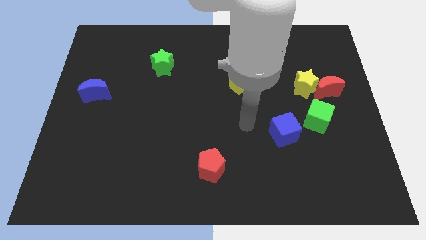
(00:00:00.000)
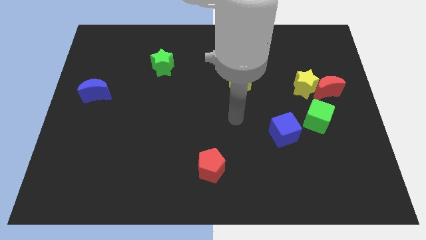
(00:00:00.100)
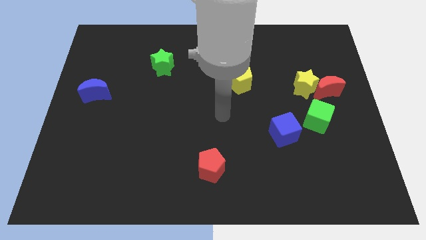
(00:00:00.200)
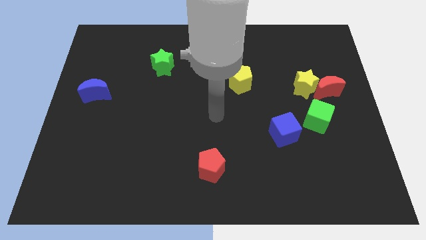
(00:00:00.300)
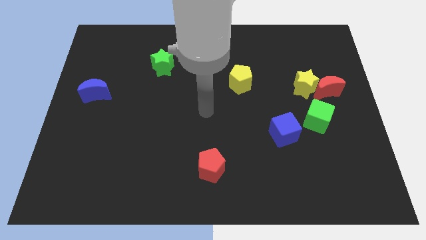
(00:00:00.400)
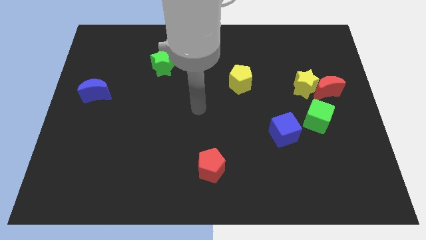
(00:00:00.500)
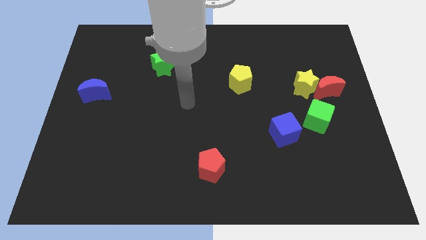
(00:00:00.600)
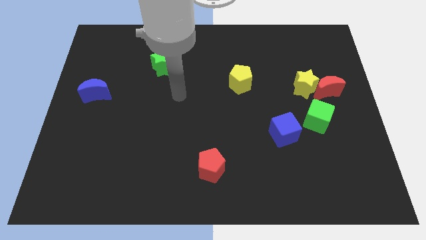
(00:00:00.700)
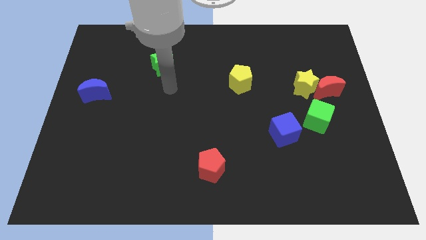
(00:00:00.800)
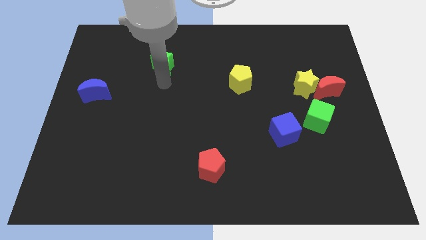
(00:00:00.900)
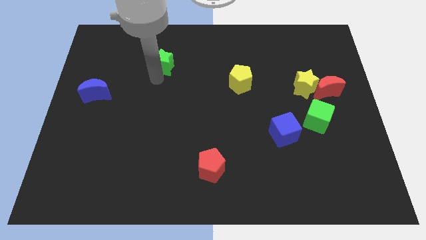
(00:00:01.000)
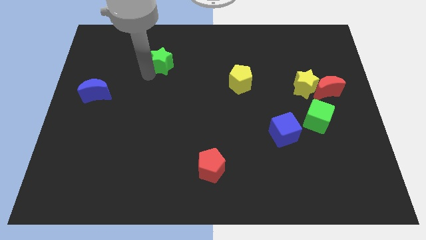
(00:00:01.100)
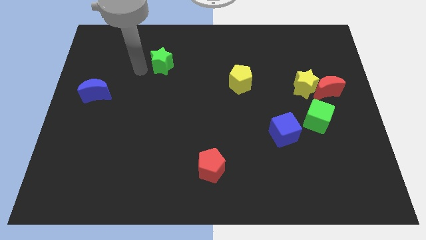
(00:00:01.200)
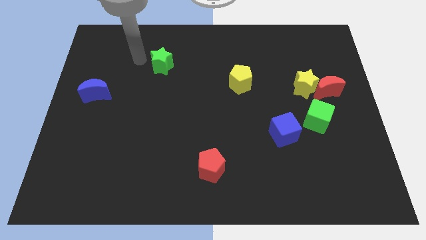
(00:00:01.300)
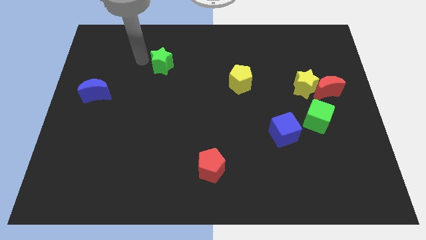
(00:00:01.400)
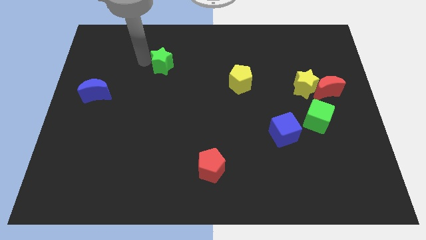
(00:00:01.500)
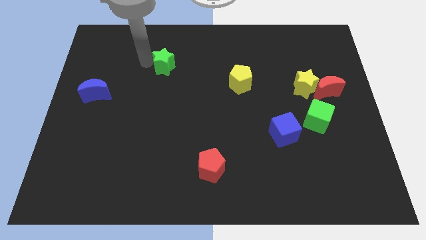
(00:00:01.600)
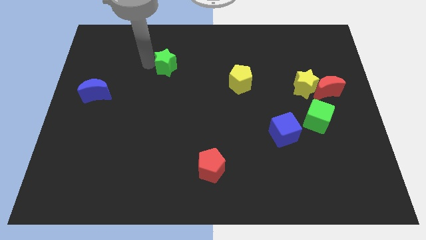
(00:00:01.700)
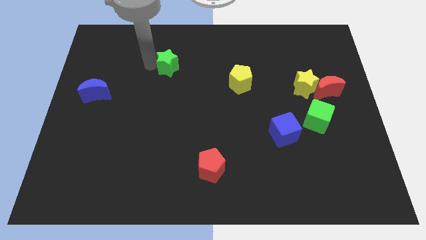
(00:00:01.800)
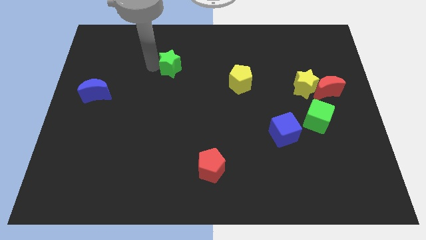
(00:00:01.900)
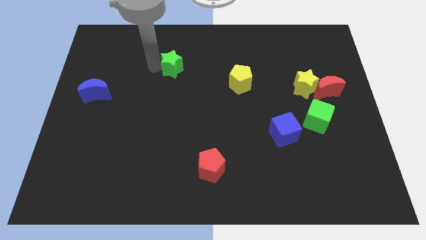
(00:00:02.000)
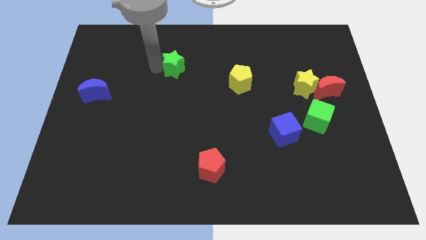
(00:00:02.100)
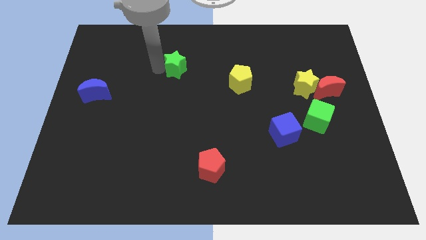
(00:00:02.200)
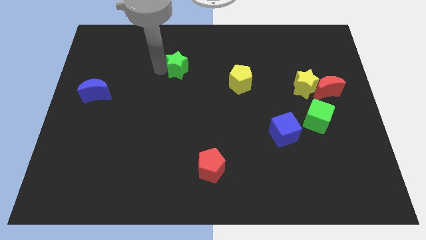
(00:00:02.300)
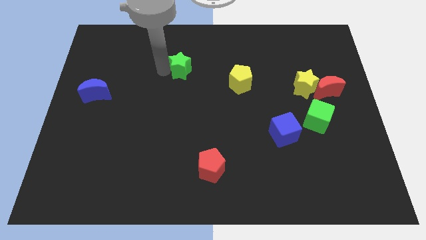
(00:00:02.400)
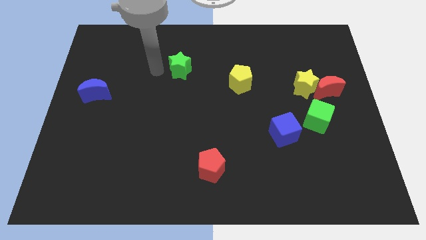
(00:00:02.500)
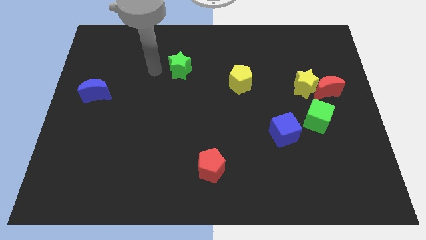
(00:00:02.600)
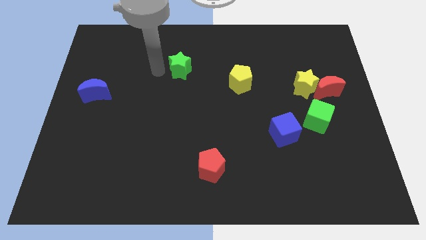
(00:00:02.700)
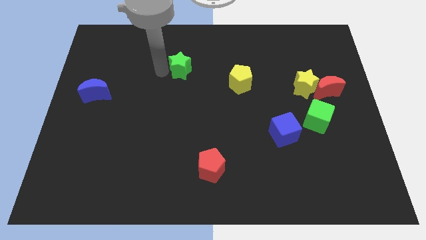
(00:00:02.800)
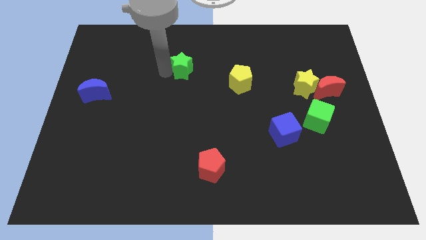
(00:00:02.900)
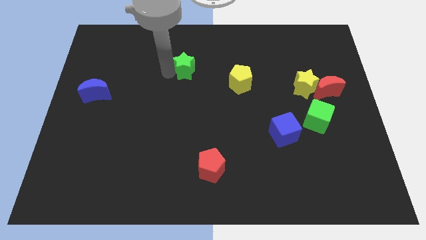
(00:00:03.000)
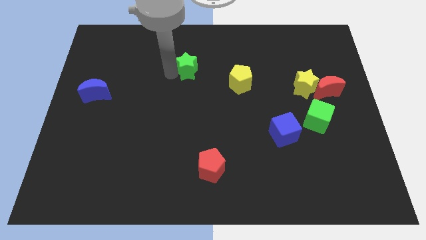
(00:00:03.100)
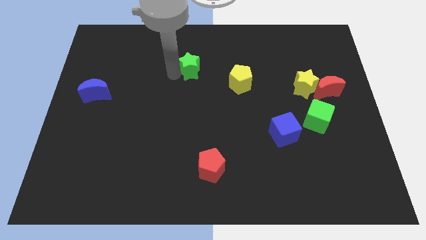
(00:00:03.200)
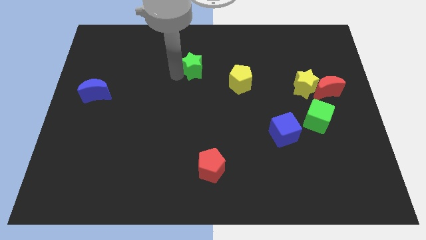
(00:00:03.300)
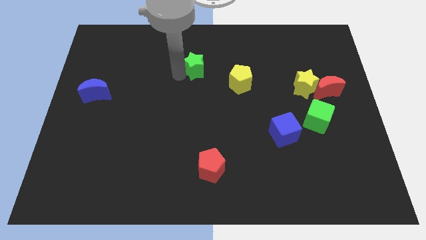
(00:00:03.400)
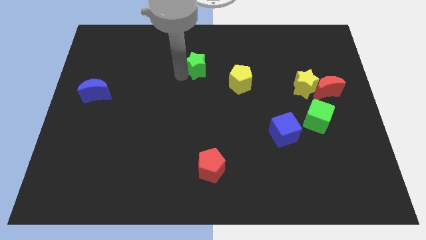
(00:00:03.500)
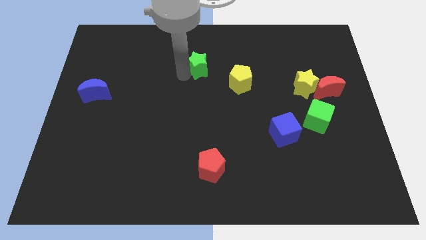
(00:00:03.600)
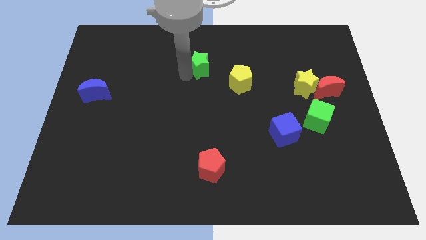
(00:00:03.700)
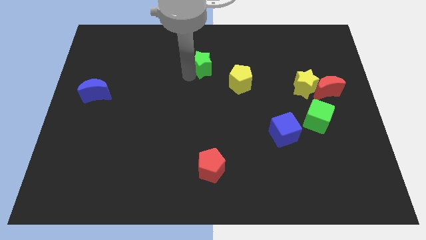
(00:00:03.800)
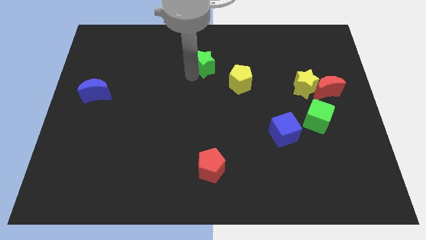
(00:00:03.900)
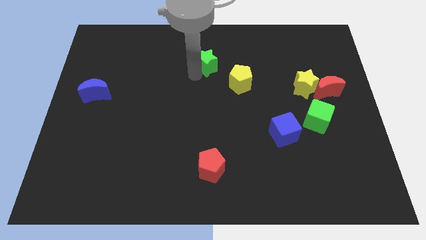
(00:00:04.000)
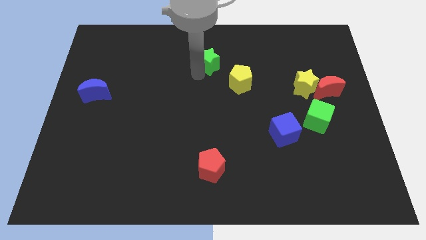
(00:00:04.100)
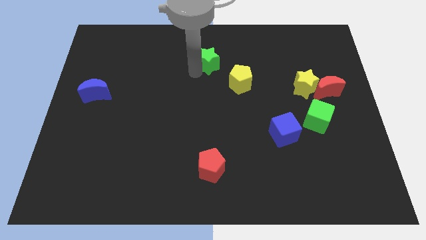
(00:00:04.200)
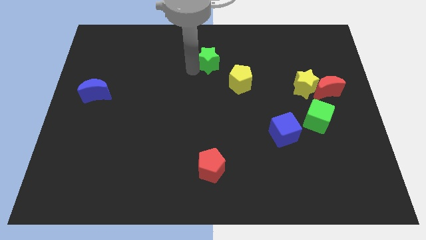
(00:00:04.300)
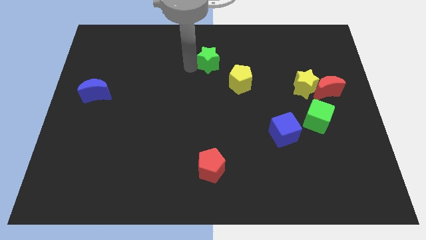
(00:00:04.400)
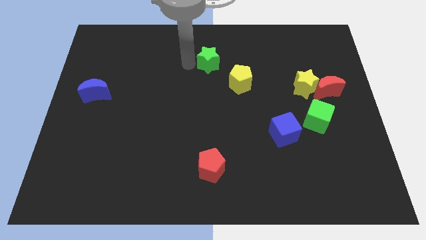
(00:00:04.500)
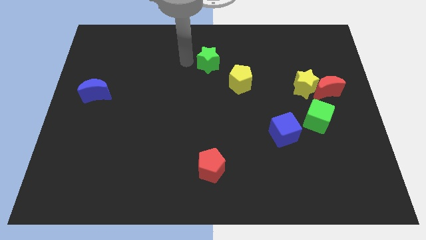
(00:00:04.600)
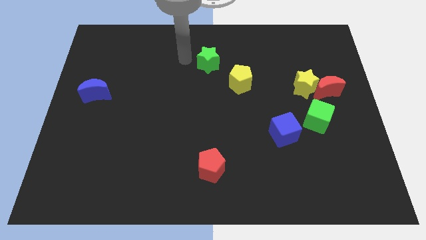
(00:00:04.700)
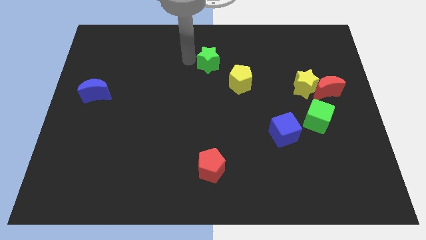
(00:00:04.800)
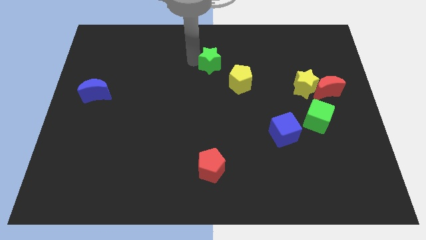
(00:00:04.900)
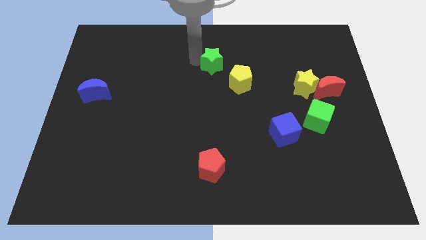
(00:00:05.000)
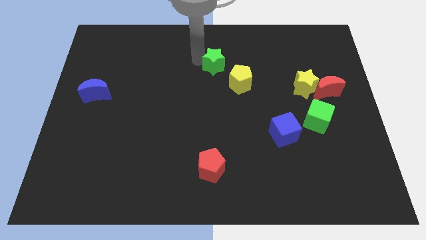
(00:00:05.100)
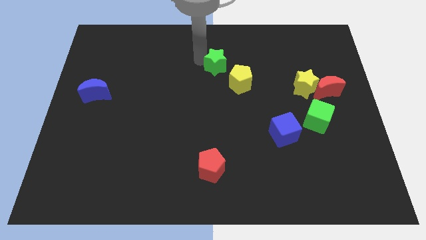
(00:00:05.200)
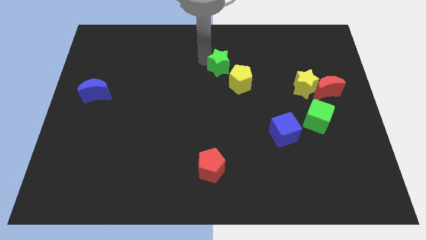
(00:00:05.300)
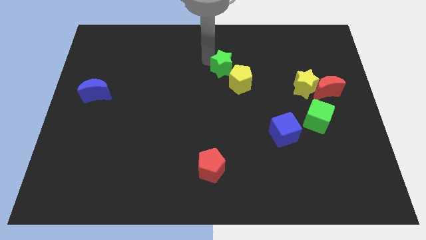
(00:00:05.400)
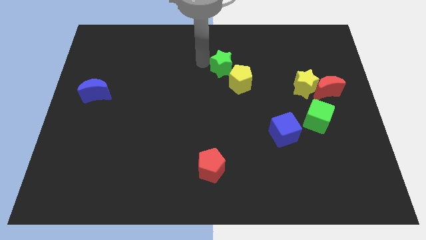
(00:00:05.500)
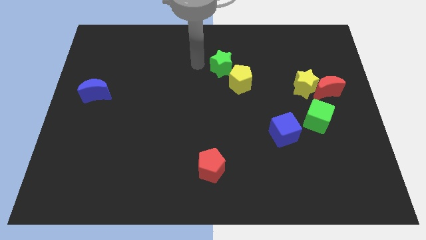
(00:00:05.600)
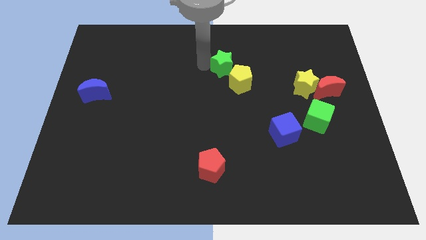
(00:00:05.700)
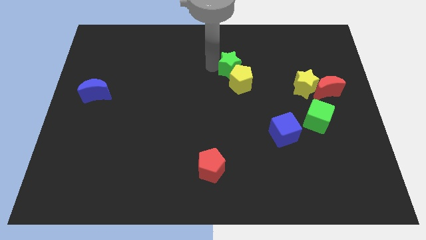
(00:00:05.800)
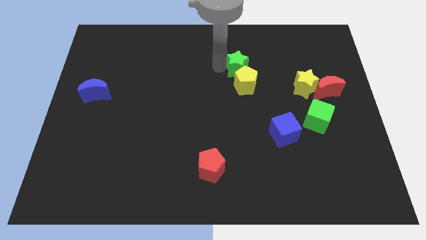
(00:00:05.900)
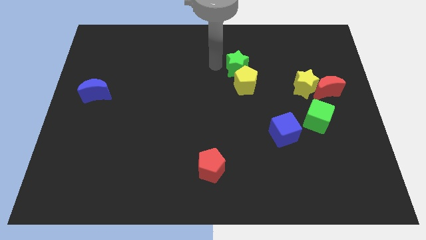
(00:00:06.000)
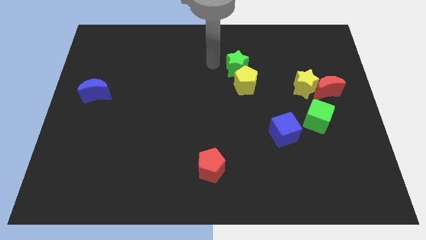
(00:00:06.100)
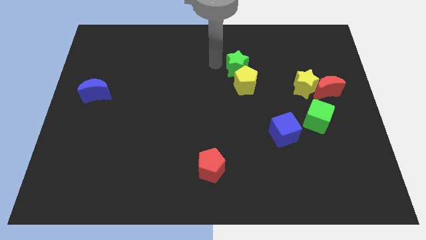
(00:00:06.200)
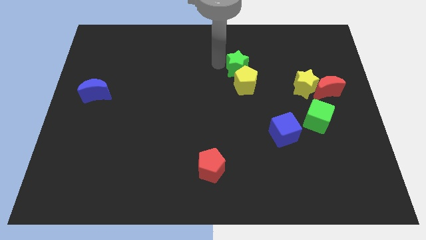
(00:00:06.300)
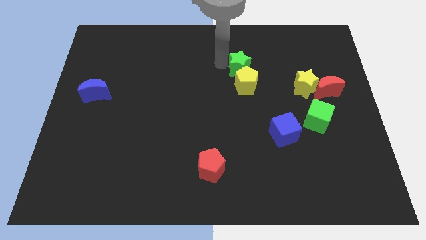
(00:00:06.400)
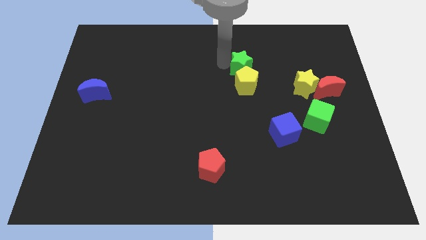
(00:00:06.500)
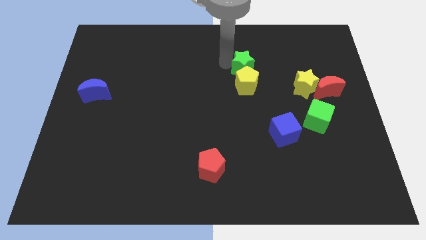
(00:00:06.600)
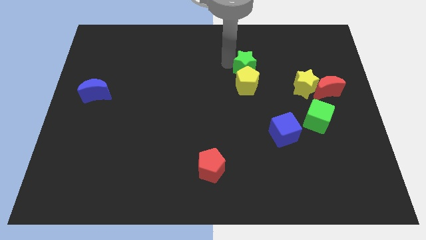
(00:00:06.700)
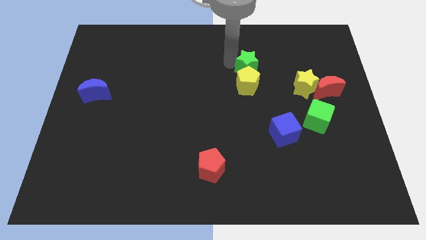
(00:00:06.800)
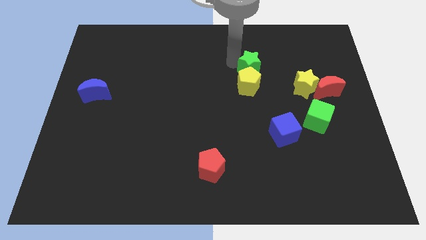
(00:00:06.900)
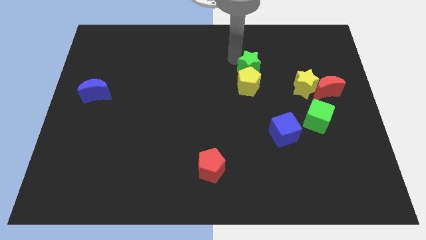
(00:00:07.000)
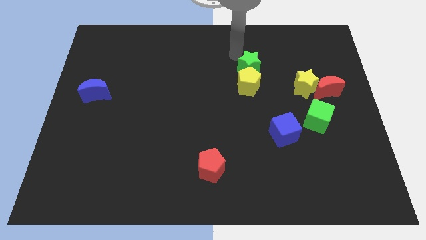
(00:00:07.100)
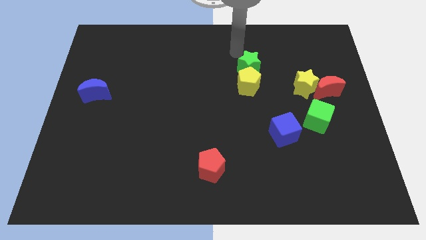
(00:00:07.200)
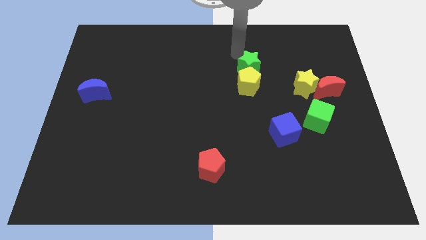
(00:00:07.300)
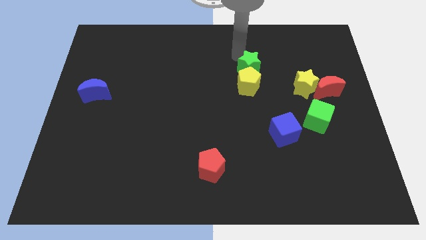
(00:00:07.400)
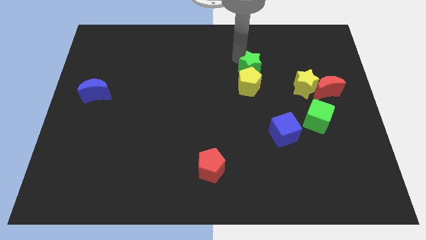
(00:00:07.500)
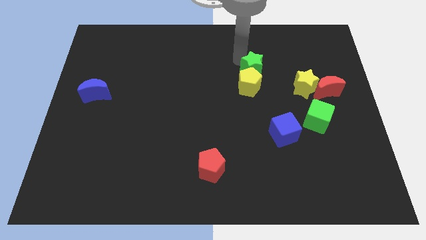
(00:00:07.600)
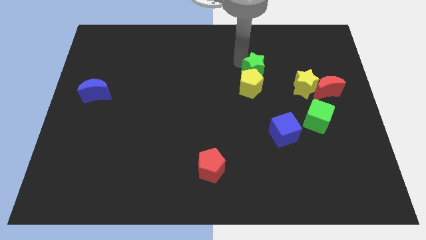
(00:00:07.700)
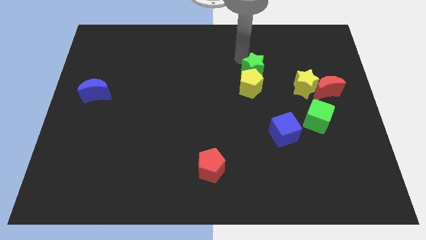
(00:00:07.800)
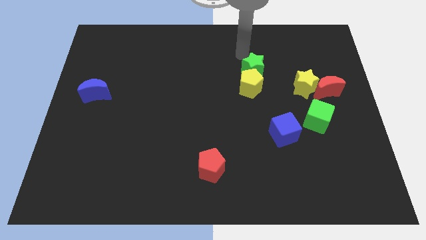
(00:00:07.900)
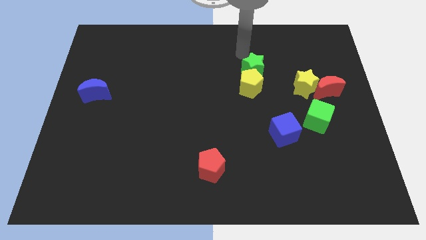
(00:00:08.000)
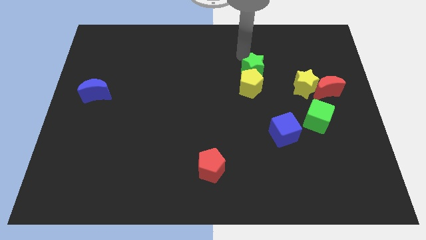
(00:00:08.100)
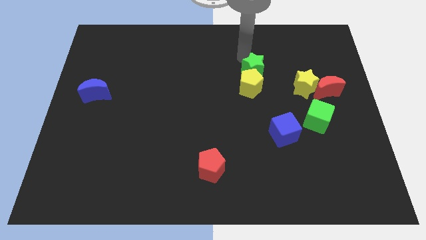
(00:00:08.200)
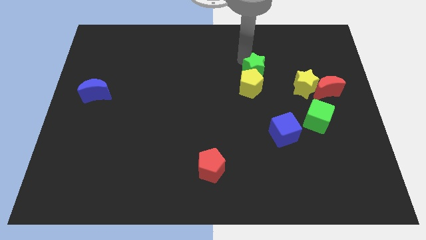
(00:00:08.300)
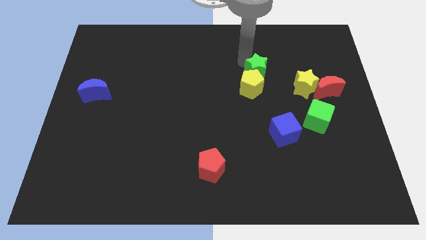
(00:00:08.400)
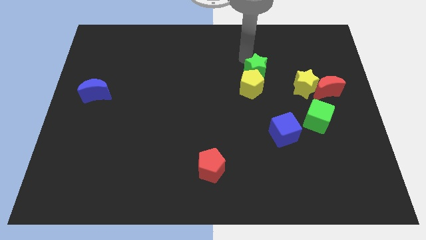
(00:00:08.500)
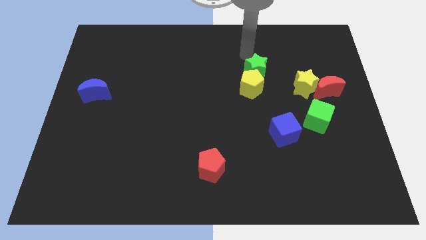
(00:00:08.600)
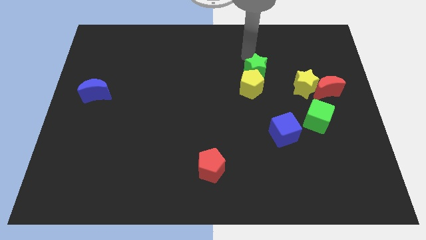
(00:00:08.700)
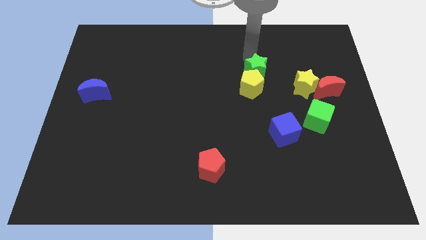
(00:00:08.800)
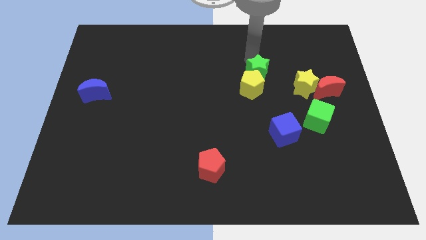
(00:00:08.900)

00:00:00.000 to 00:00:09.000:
put the green star to the left side of the yellow star
